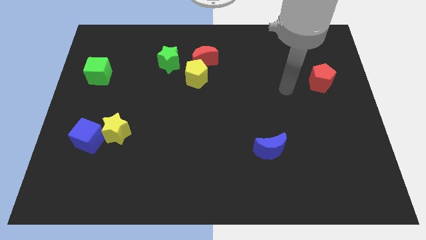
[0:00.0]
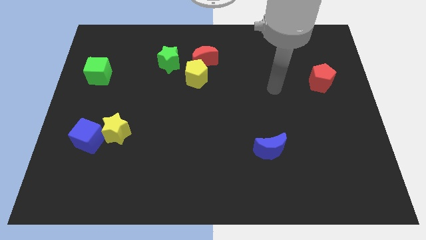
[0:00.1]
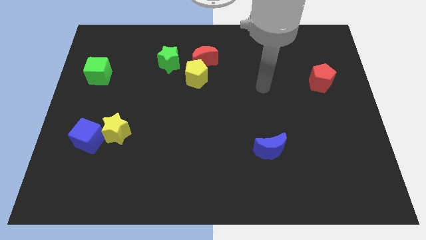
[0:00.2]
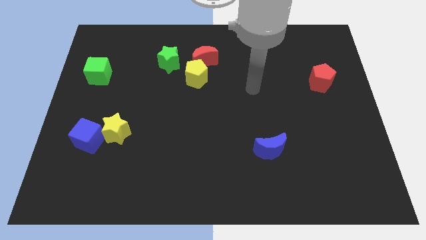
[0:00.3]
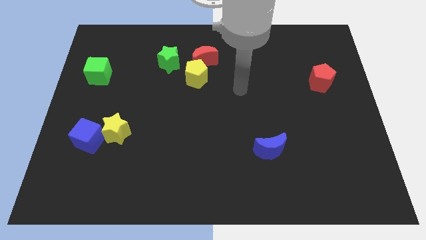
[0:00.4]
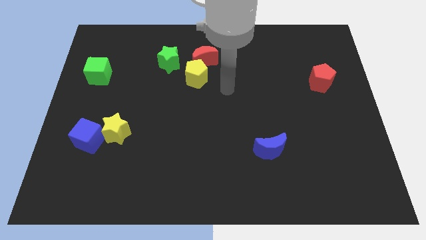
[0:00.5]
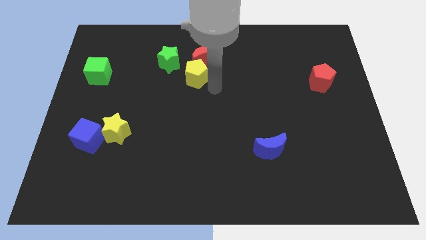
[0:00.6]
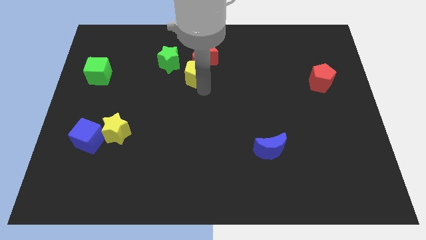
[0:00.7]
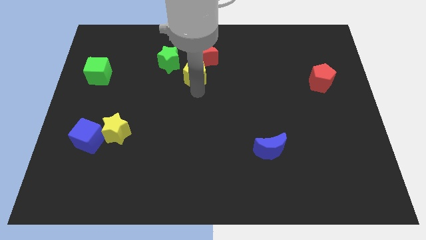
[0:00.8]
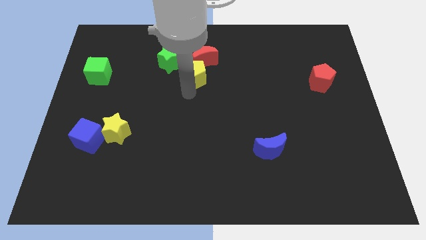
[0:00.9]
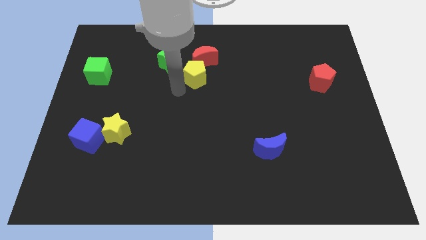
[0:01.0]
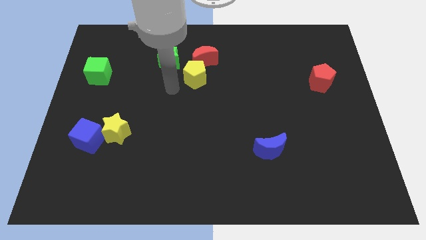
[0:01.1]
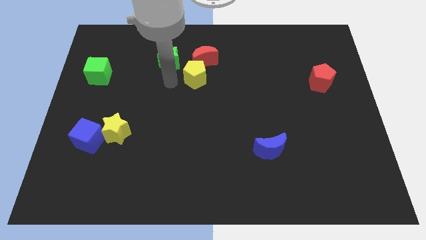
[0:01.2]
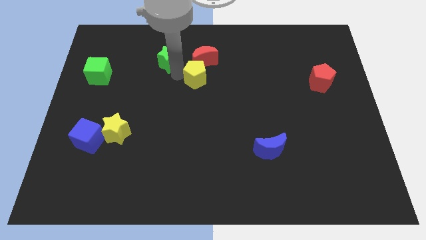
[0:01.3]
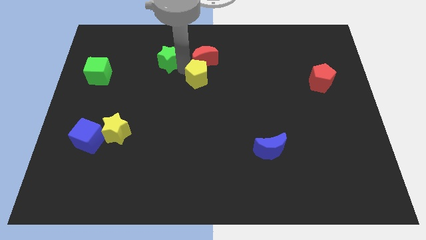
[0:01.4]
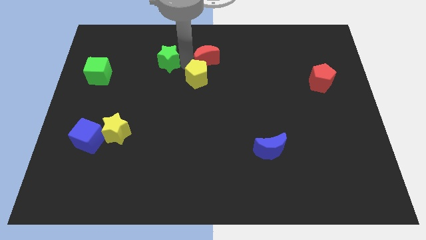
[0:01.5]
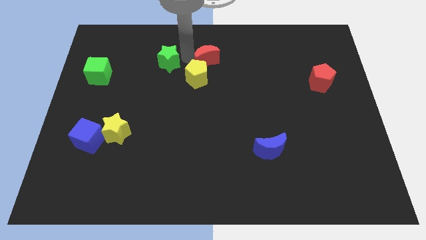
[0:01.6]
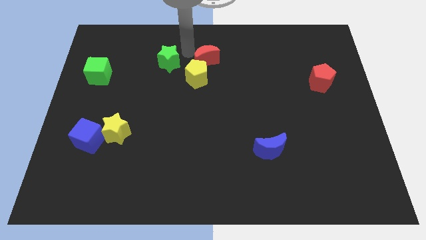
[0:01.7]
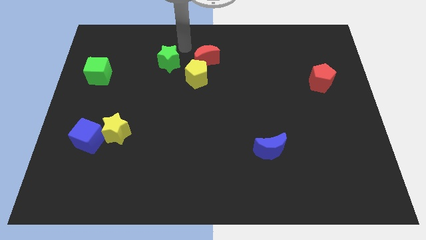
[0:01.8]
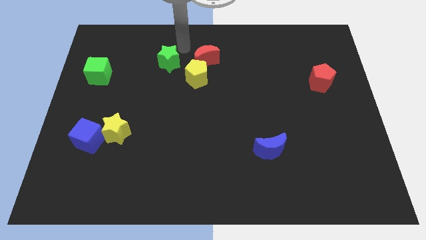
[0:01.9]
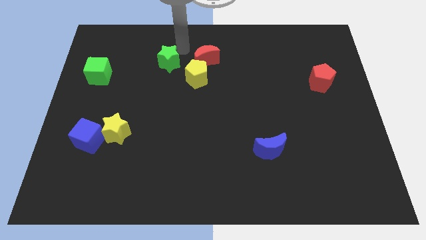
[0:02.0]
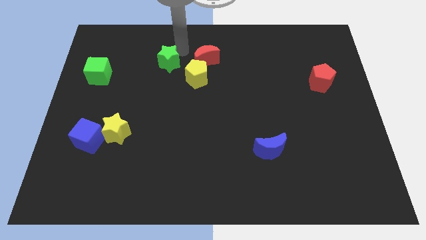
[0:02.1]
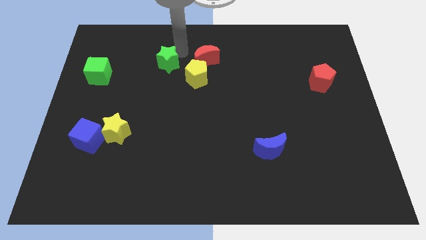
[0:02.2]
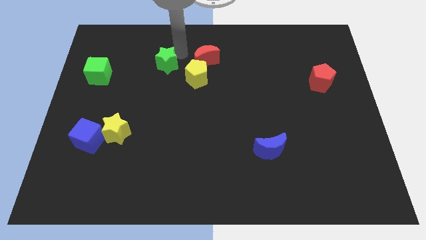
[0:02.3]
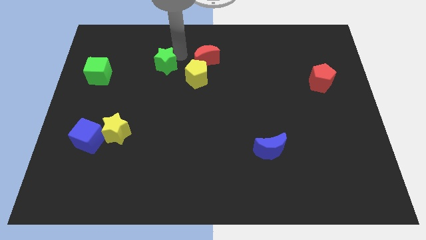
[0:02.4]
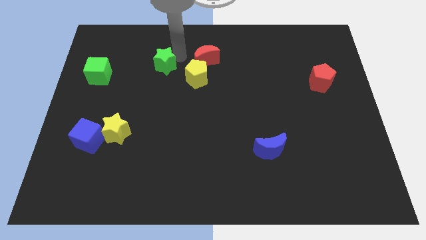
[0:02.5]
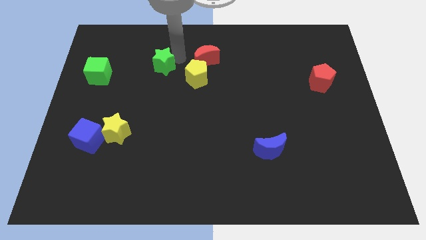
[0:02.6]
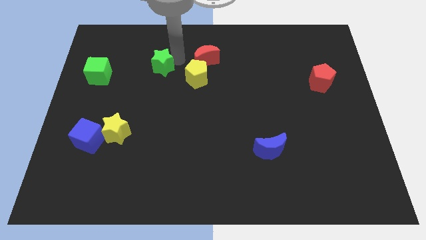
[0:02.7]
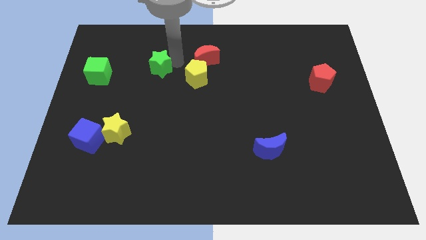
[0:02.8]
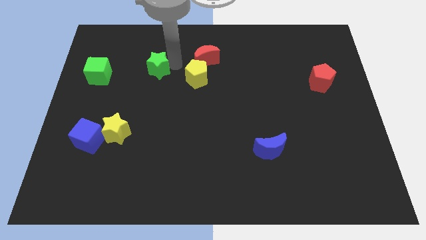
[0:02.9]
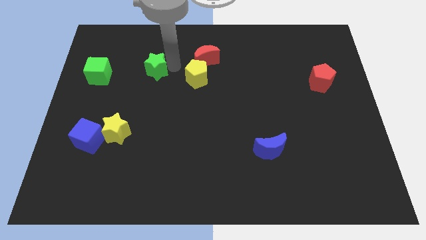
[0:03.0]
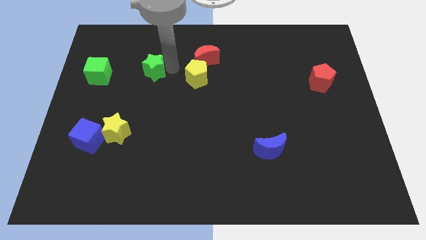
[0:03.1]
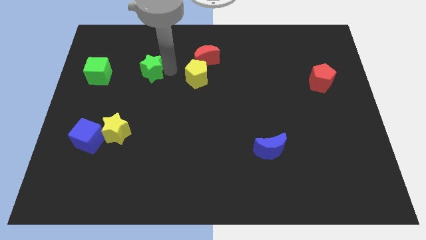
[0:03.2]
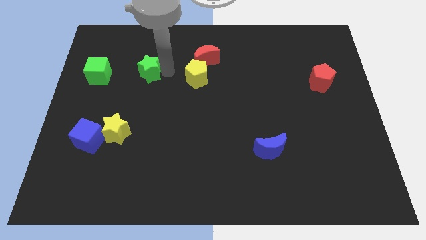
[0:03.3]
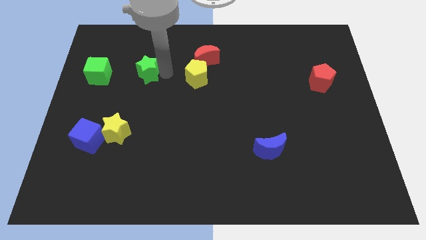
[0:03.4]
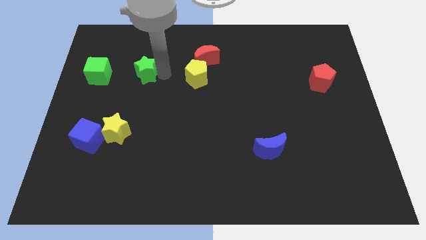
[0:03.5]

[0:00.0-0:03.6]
slightly push the green star downwards and then left

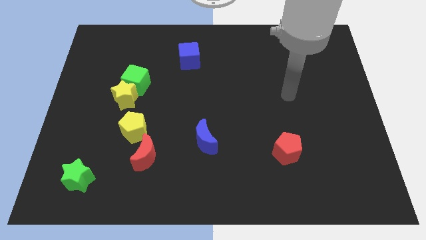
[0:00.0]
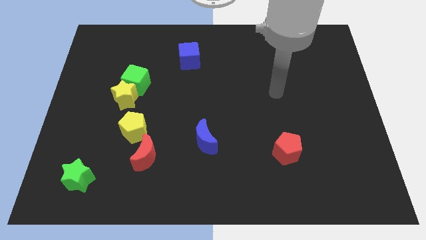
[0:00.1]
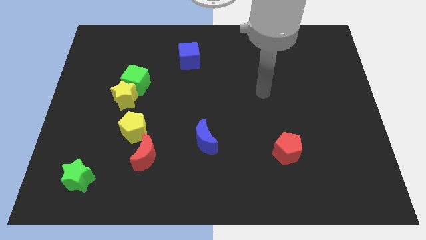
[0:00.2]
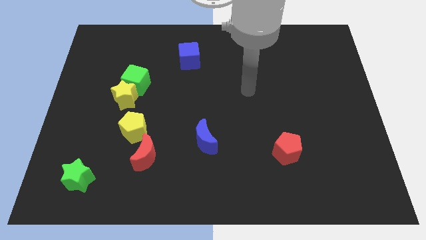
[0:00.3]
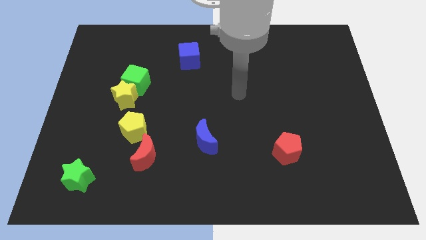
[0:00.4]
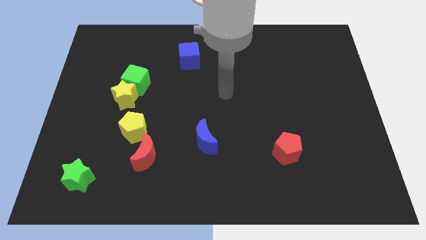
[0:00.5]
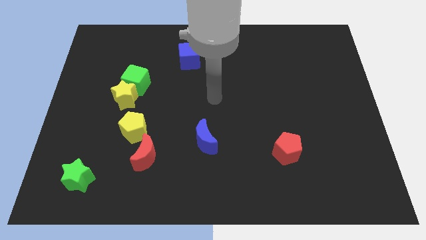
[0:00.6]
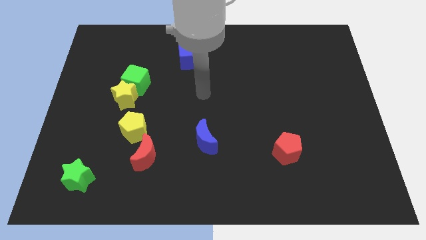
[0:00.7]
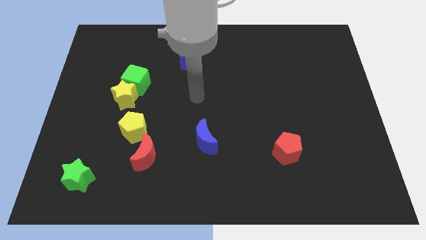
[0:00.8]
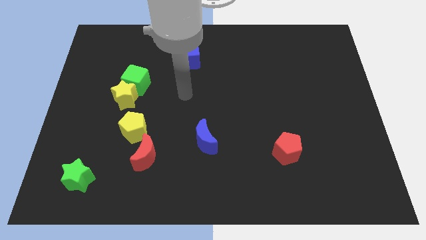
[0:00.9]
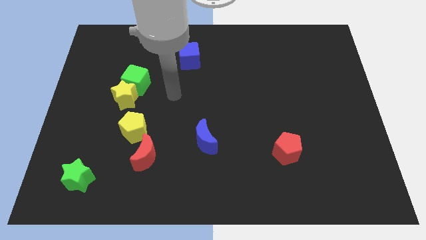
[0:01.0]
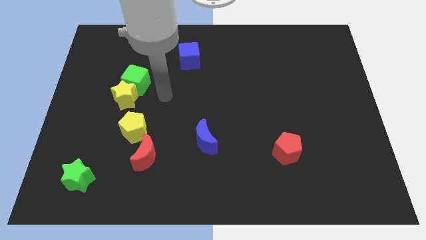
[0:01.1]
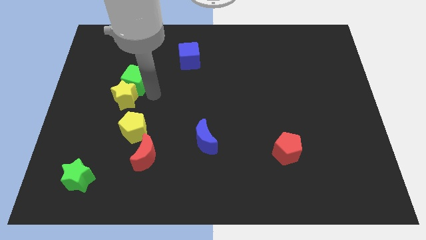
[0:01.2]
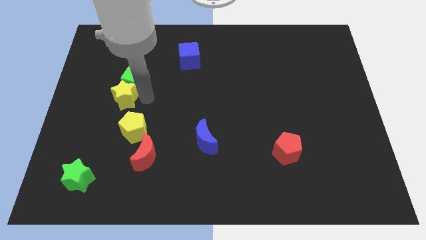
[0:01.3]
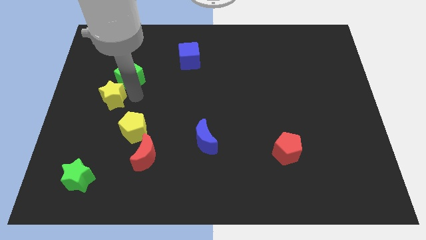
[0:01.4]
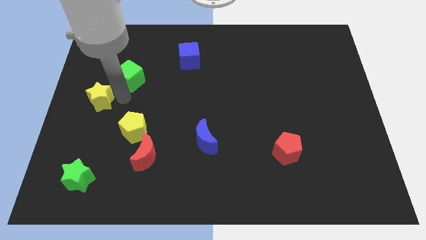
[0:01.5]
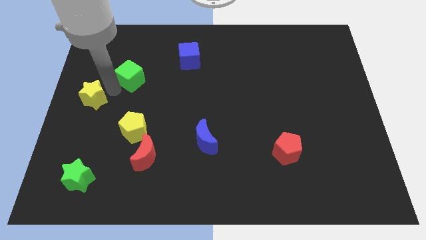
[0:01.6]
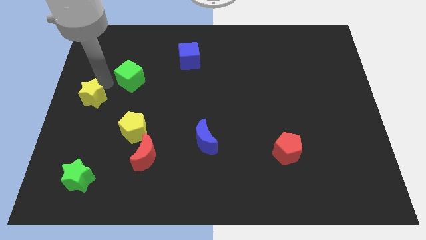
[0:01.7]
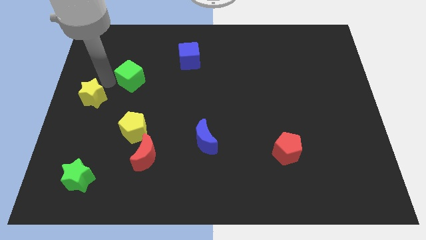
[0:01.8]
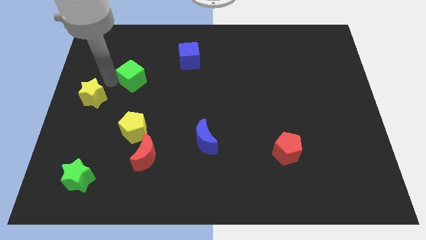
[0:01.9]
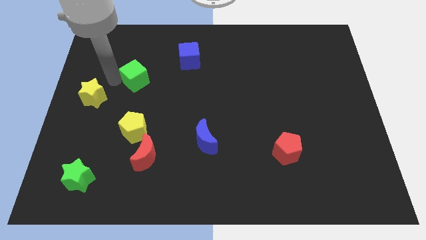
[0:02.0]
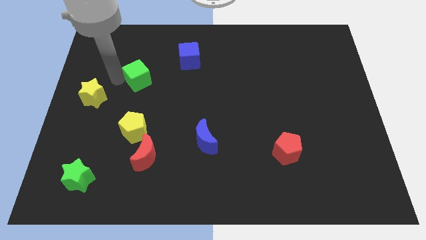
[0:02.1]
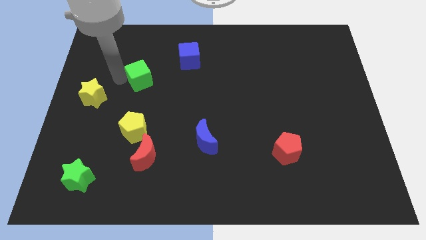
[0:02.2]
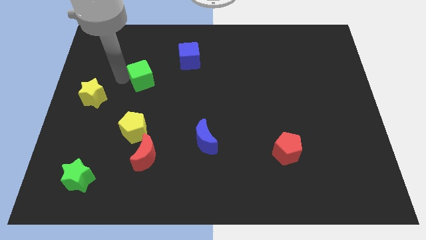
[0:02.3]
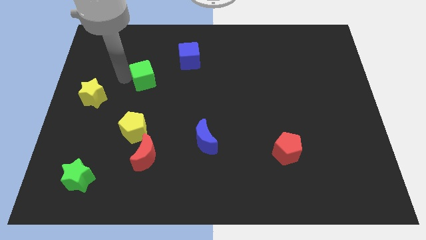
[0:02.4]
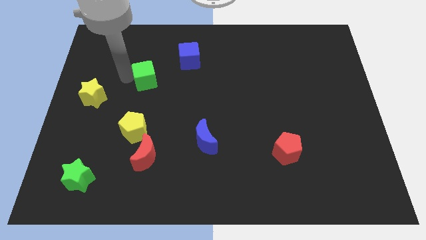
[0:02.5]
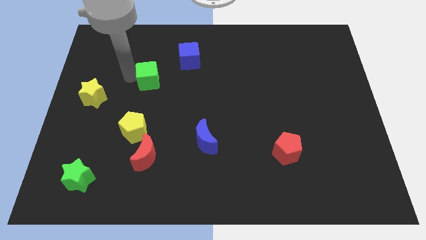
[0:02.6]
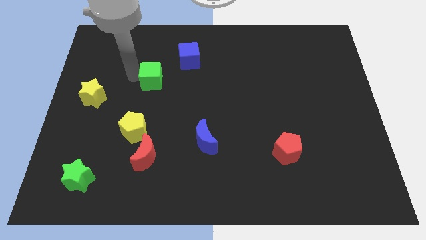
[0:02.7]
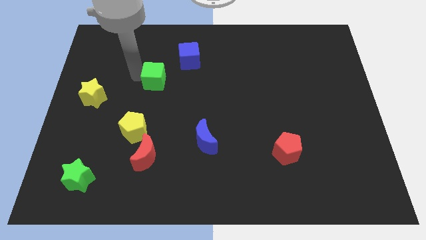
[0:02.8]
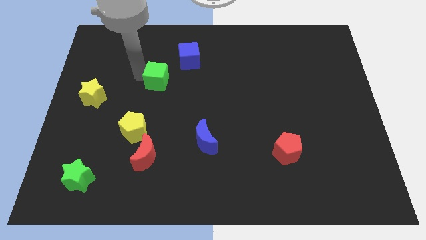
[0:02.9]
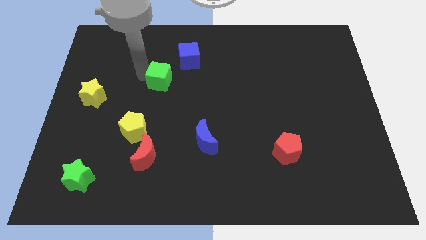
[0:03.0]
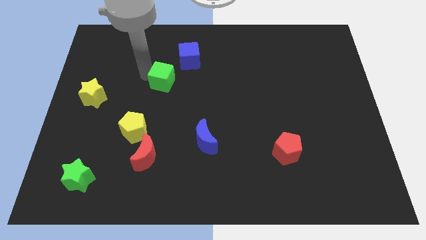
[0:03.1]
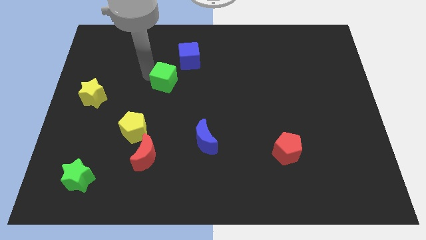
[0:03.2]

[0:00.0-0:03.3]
slide the green cube to the right a little

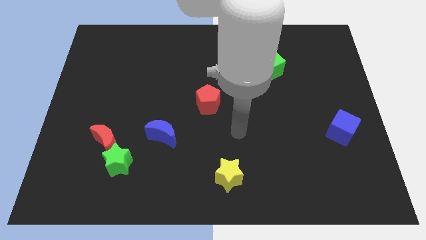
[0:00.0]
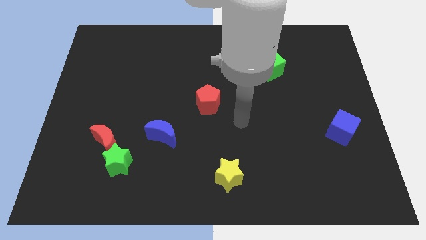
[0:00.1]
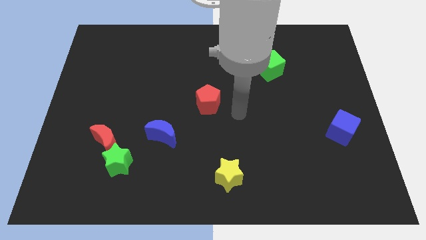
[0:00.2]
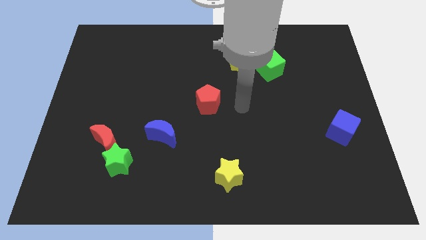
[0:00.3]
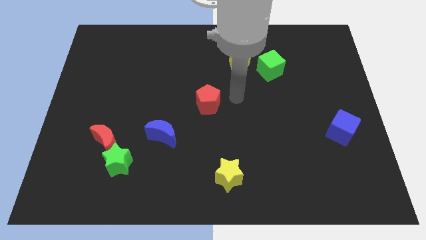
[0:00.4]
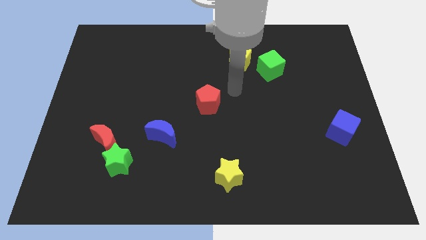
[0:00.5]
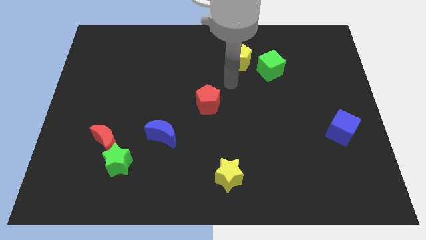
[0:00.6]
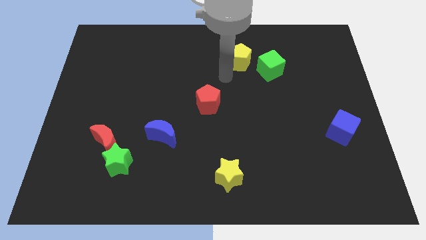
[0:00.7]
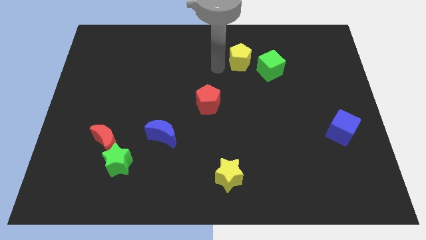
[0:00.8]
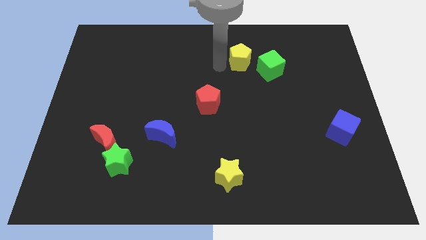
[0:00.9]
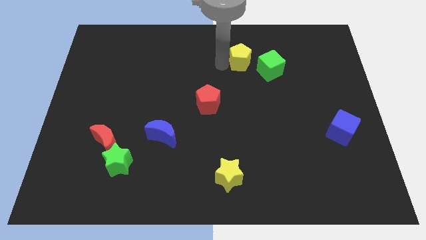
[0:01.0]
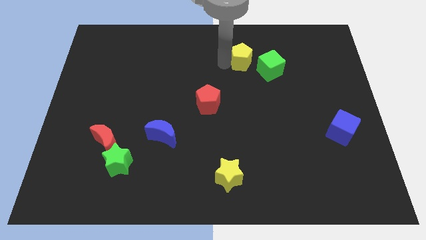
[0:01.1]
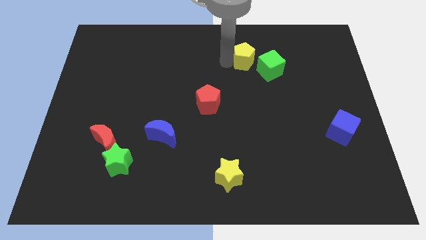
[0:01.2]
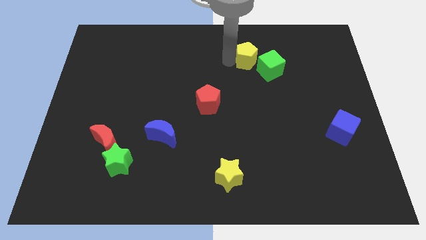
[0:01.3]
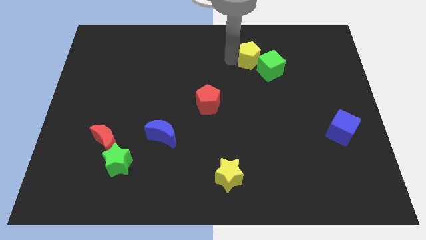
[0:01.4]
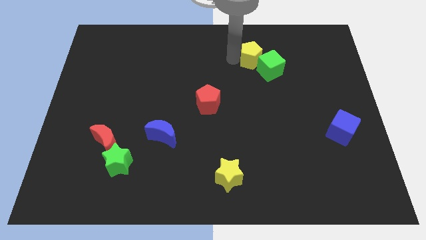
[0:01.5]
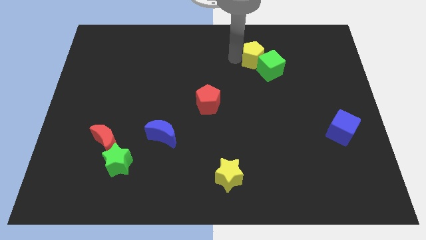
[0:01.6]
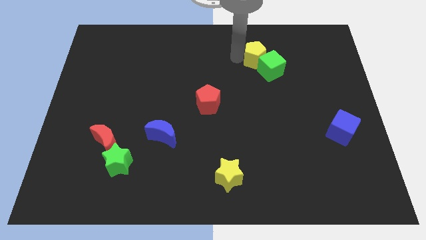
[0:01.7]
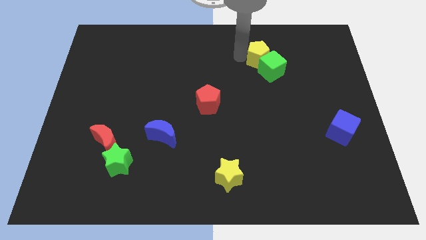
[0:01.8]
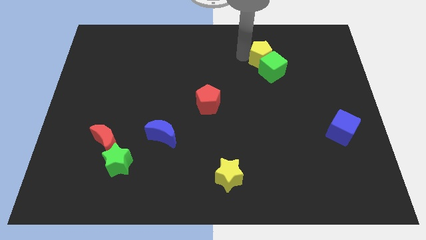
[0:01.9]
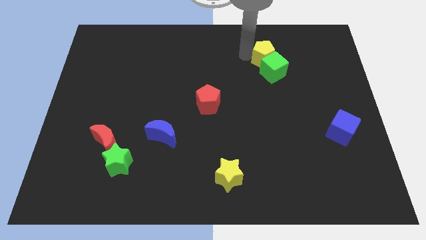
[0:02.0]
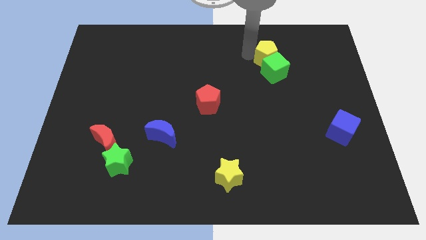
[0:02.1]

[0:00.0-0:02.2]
slide the yellow pentagon slightly to the right
